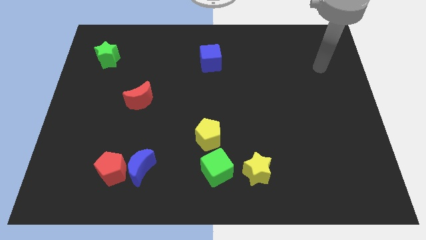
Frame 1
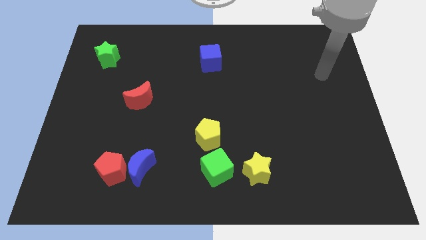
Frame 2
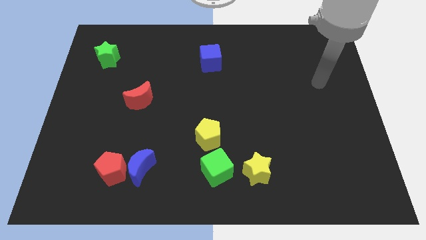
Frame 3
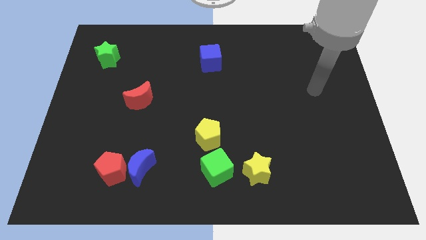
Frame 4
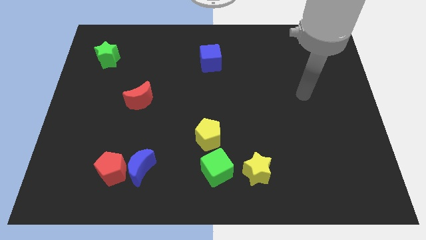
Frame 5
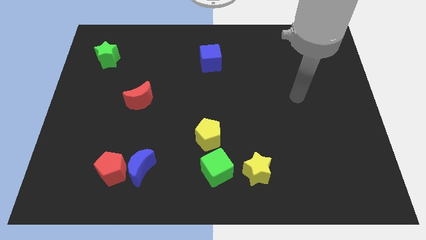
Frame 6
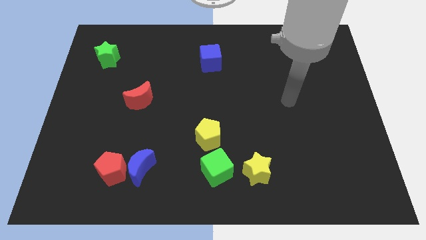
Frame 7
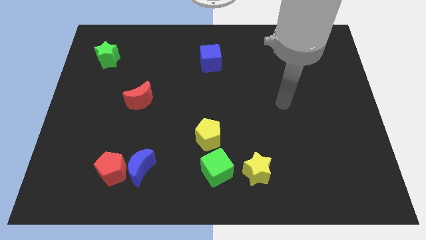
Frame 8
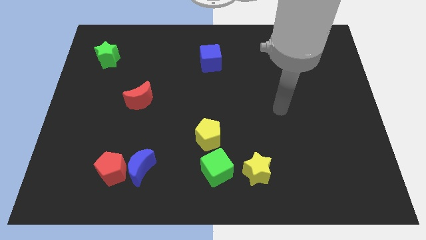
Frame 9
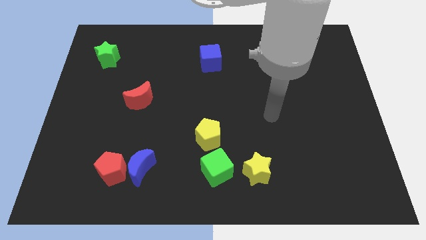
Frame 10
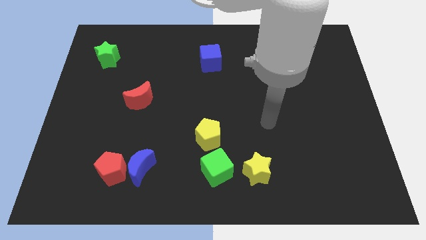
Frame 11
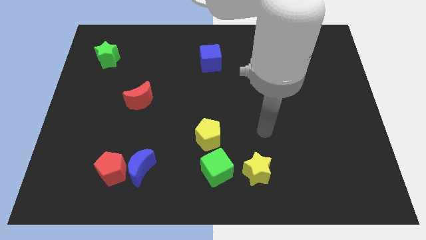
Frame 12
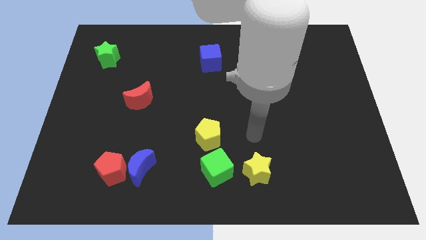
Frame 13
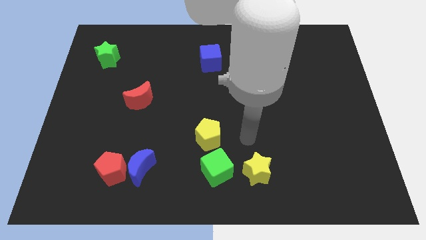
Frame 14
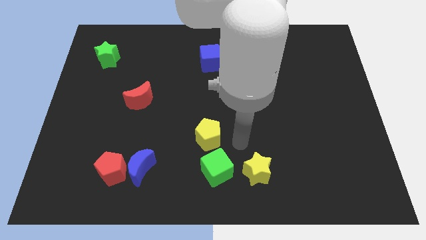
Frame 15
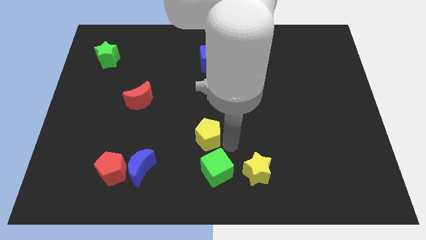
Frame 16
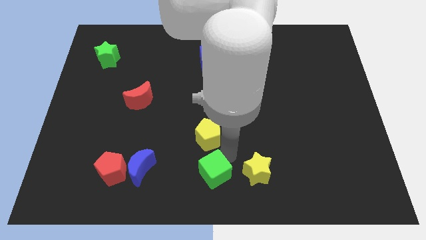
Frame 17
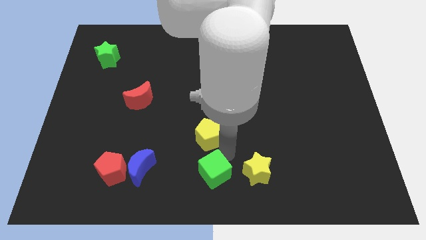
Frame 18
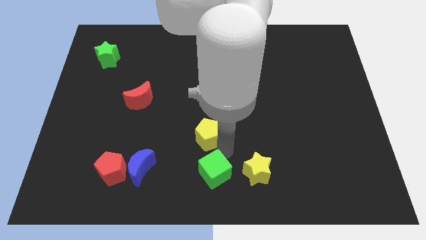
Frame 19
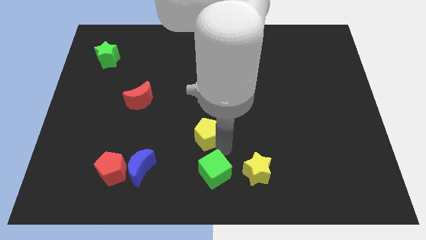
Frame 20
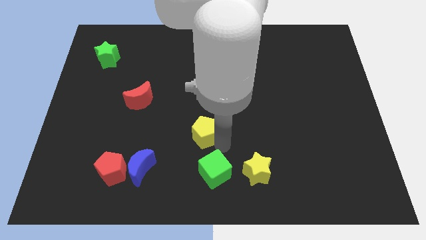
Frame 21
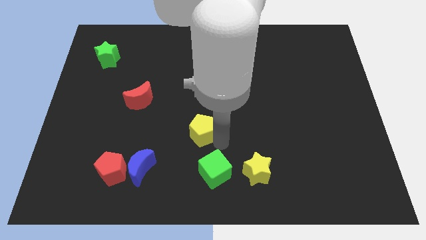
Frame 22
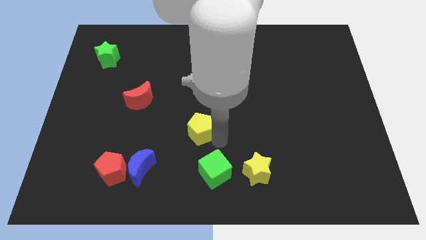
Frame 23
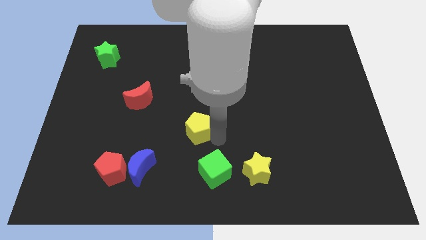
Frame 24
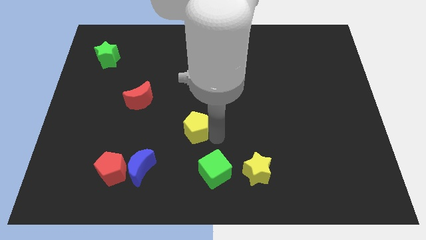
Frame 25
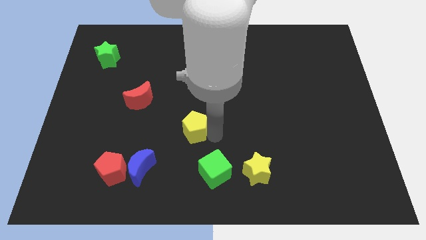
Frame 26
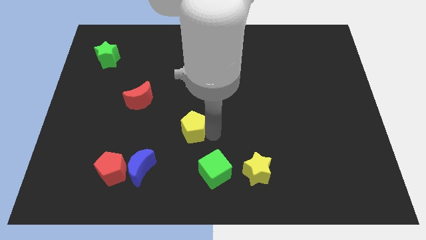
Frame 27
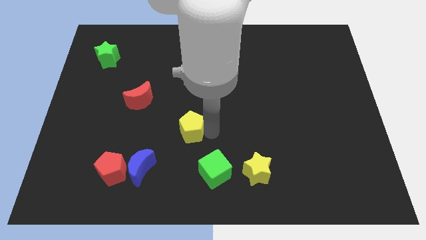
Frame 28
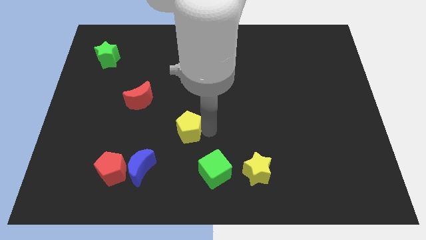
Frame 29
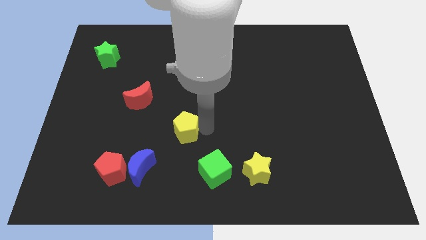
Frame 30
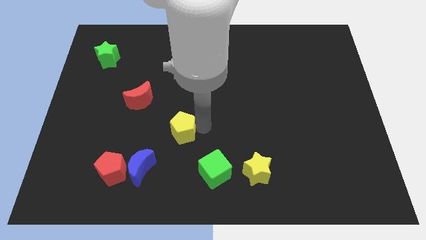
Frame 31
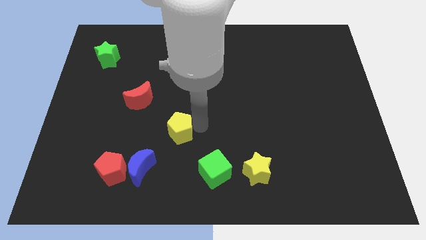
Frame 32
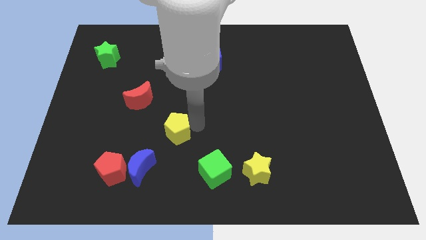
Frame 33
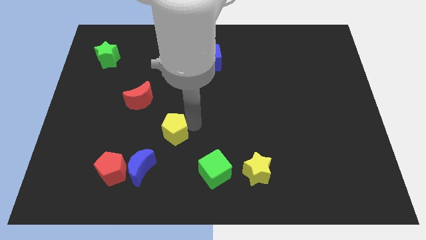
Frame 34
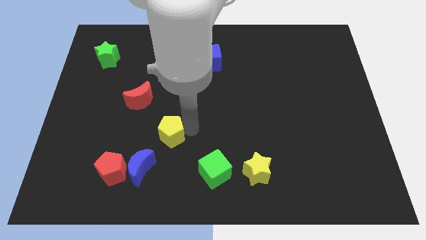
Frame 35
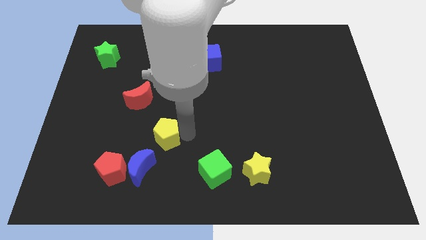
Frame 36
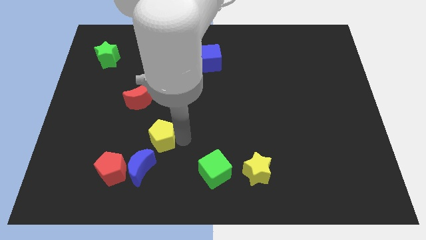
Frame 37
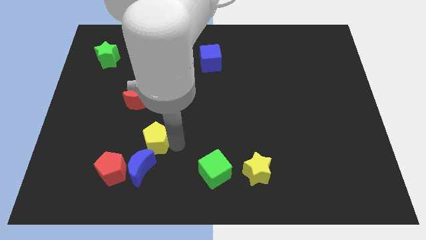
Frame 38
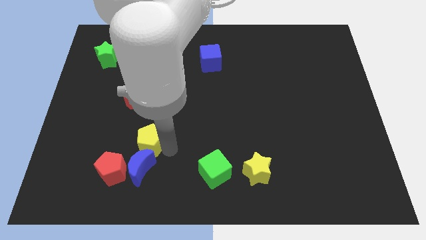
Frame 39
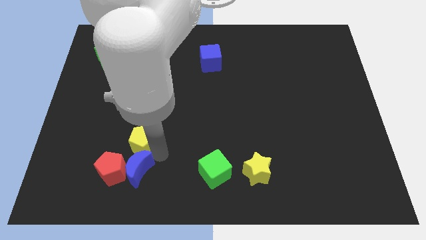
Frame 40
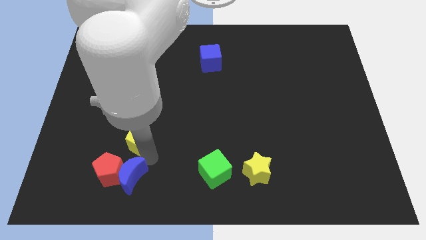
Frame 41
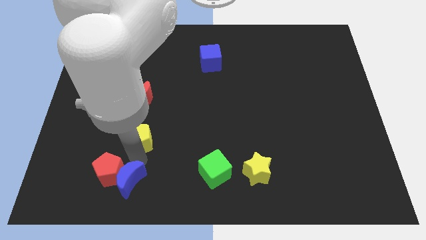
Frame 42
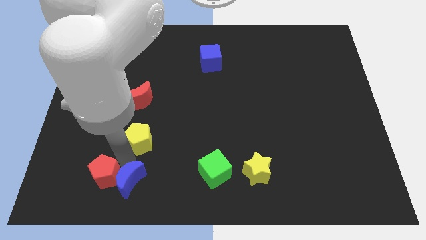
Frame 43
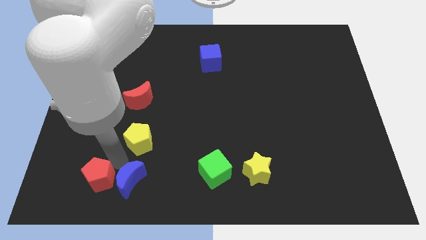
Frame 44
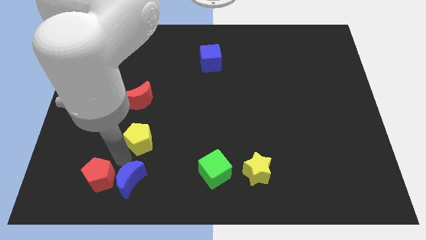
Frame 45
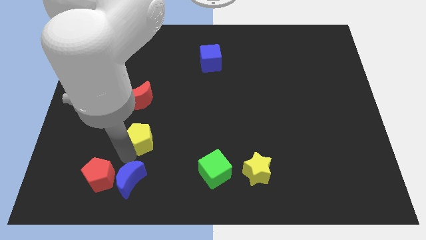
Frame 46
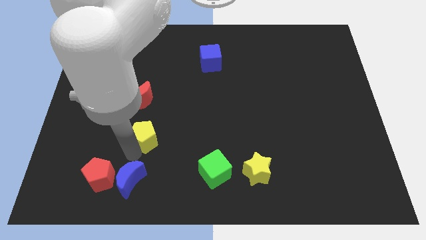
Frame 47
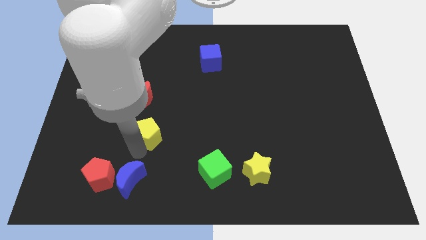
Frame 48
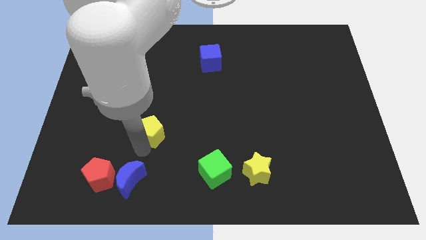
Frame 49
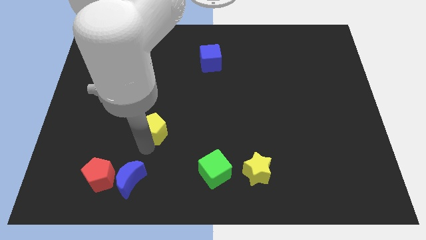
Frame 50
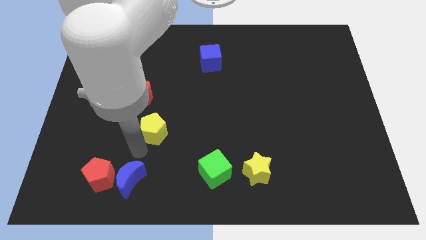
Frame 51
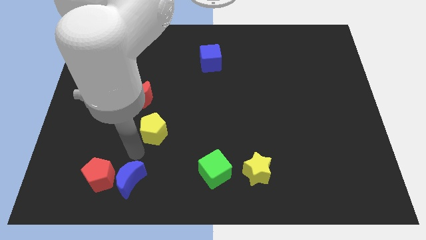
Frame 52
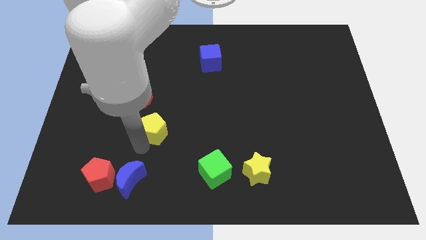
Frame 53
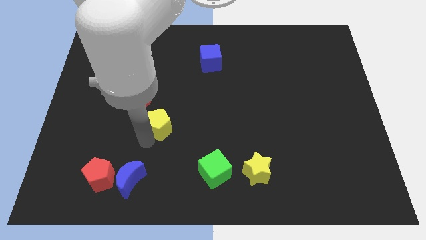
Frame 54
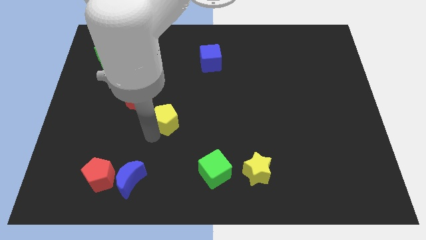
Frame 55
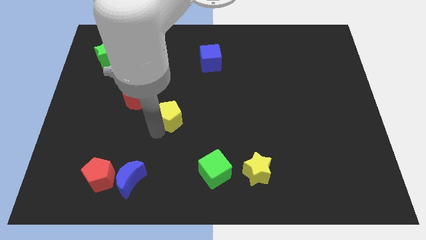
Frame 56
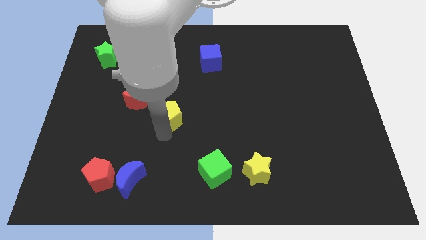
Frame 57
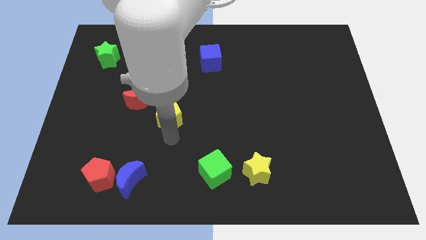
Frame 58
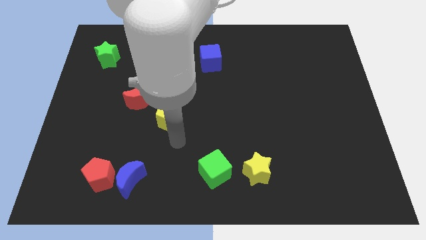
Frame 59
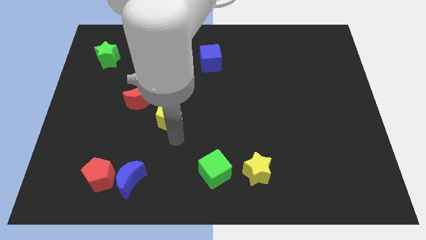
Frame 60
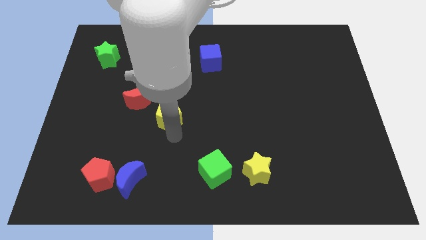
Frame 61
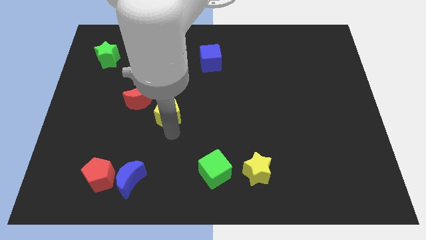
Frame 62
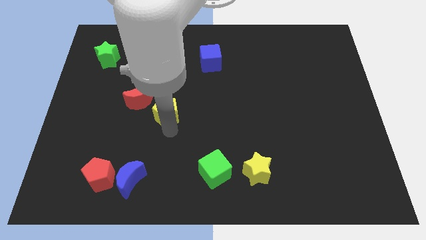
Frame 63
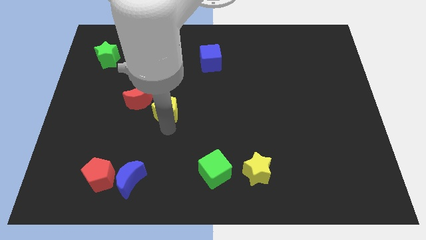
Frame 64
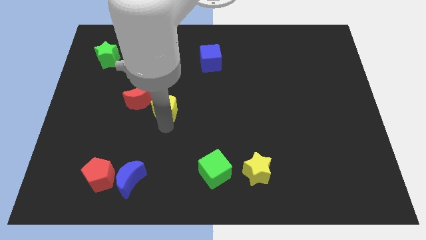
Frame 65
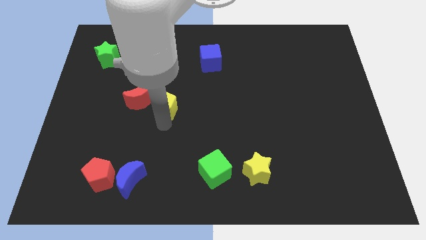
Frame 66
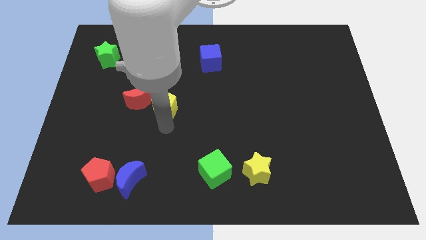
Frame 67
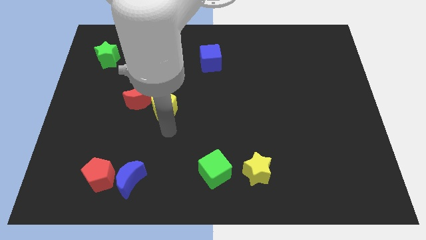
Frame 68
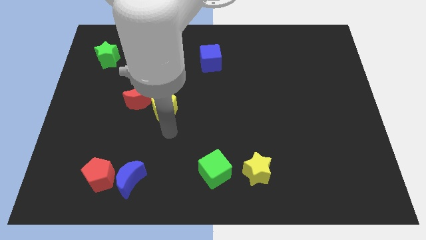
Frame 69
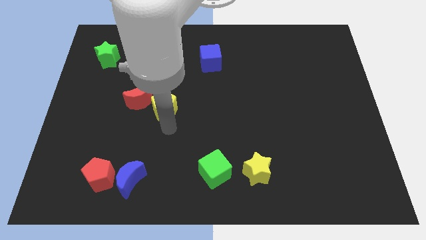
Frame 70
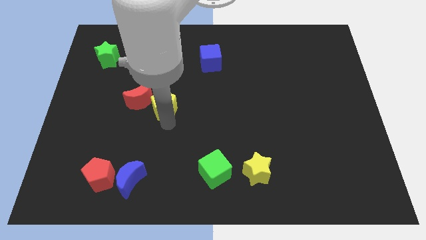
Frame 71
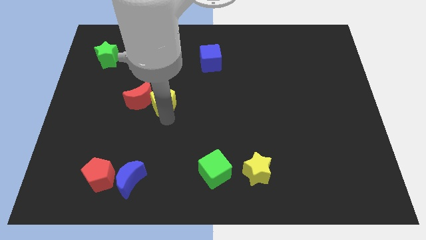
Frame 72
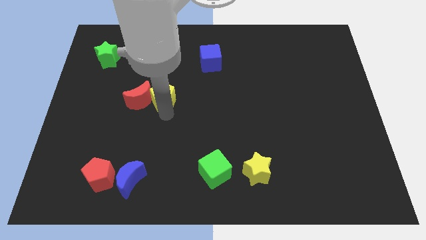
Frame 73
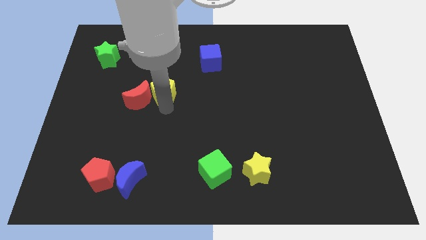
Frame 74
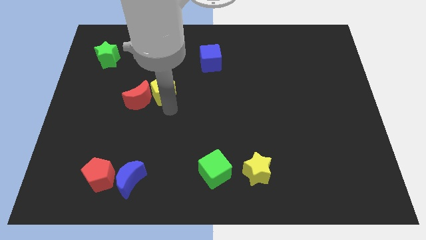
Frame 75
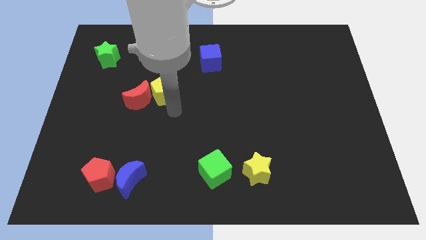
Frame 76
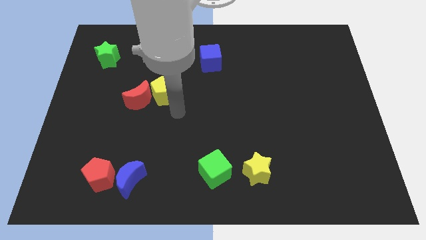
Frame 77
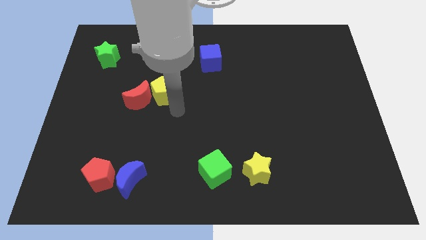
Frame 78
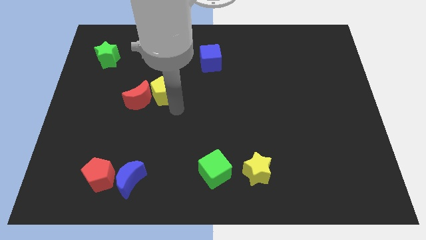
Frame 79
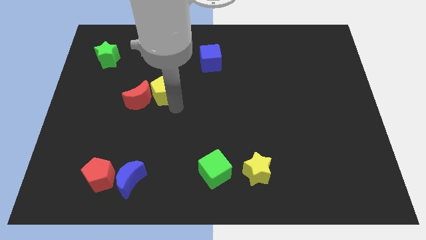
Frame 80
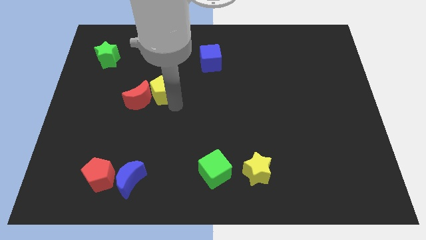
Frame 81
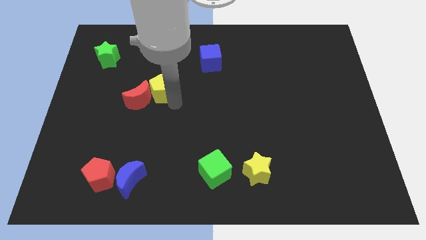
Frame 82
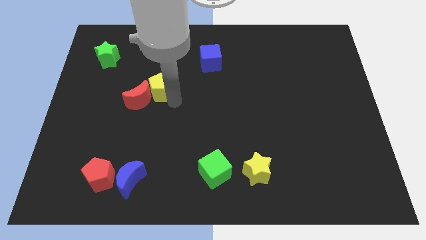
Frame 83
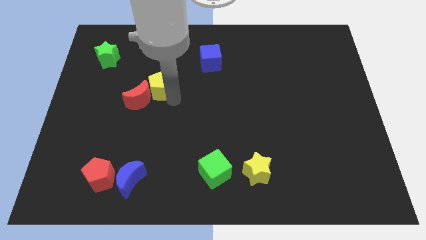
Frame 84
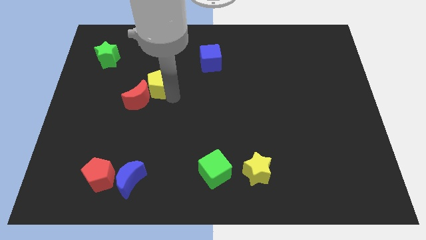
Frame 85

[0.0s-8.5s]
push the yellow pentagon above the red moon
